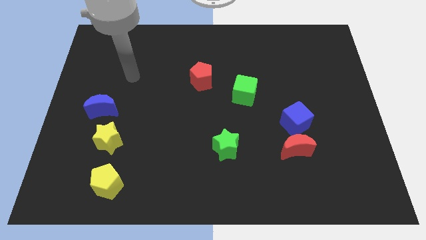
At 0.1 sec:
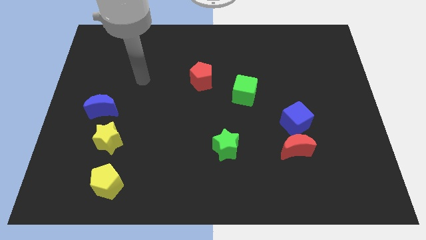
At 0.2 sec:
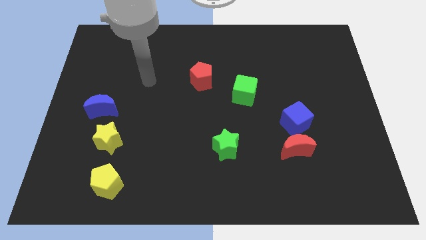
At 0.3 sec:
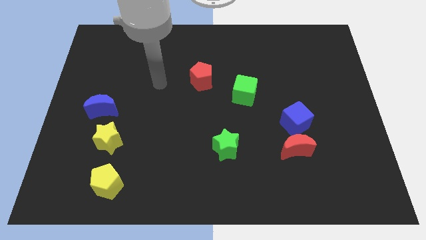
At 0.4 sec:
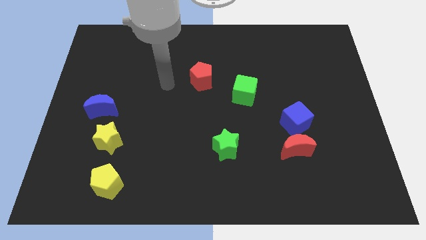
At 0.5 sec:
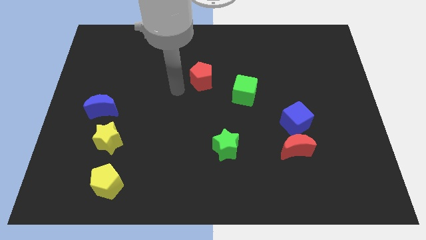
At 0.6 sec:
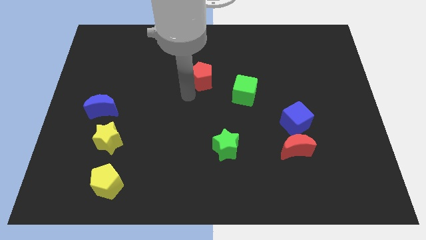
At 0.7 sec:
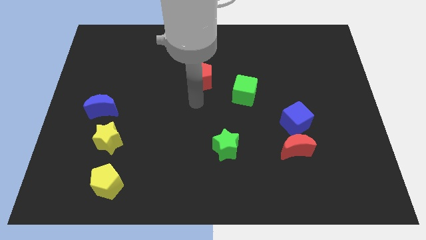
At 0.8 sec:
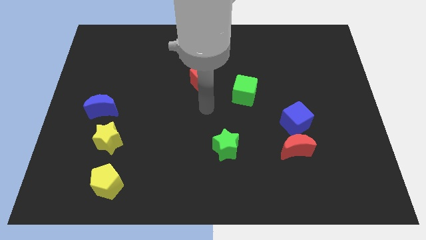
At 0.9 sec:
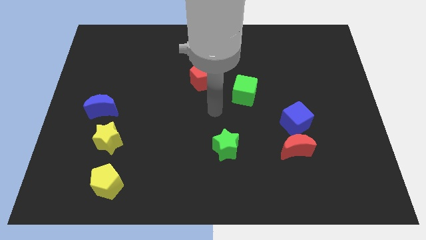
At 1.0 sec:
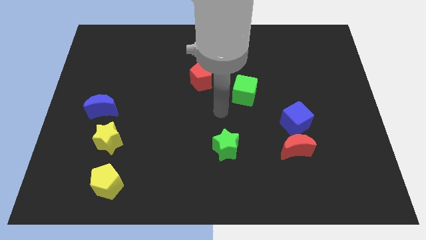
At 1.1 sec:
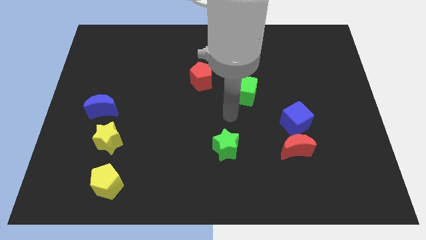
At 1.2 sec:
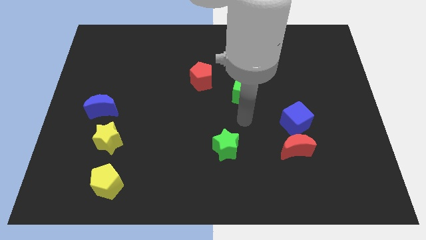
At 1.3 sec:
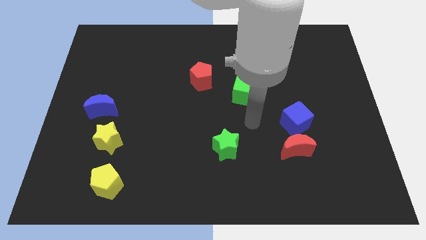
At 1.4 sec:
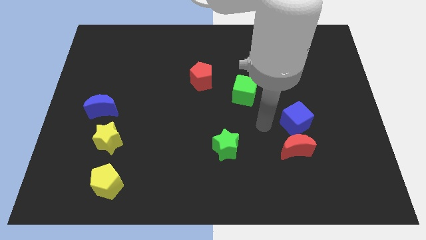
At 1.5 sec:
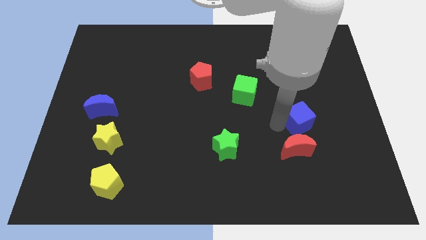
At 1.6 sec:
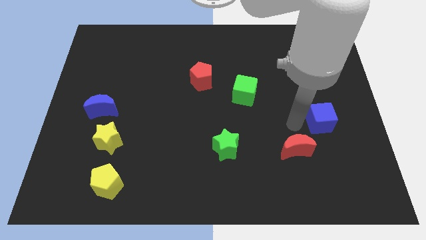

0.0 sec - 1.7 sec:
separate the red moon from the blue cube

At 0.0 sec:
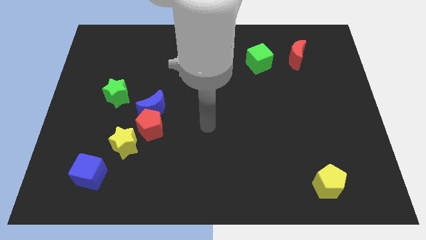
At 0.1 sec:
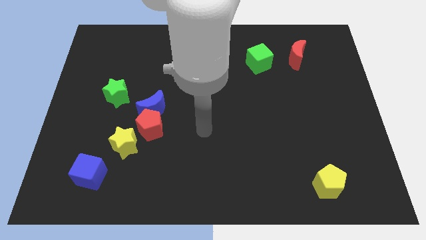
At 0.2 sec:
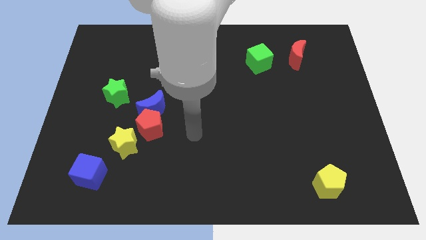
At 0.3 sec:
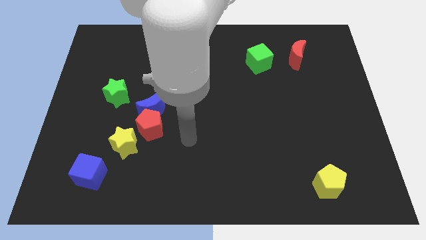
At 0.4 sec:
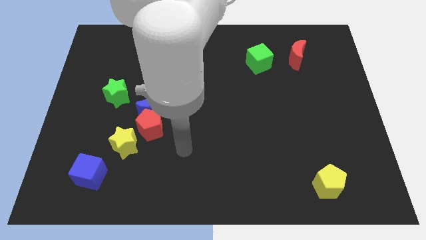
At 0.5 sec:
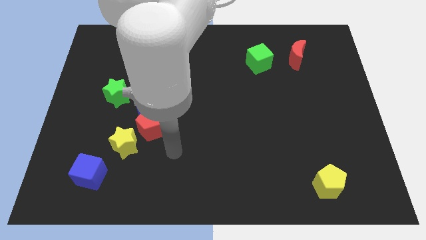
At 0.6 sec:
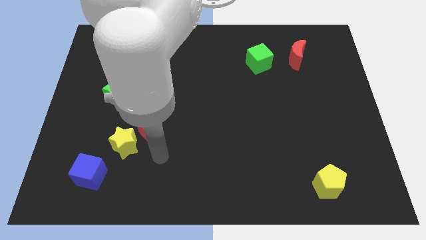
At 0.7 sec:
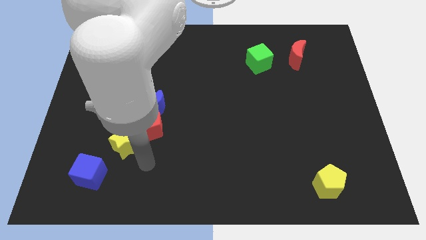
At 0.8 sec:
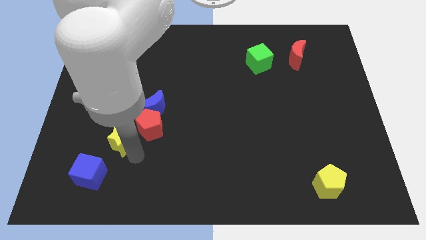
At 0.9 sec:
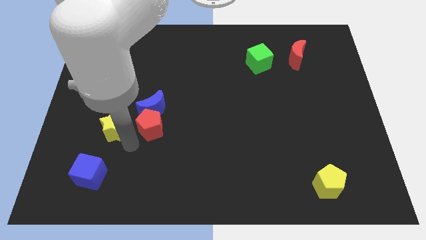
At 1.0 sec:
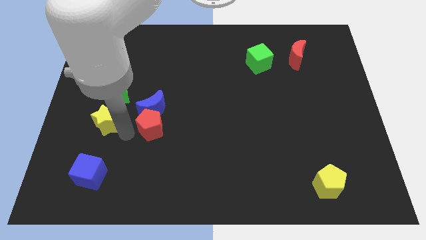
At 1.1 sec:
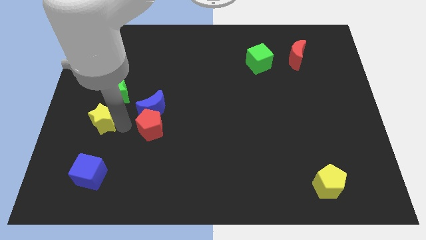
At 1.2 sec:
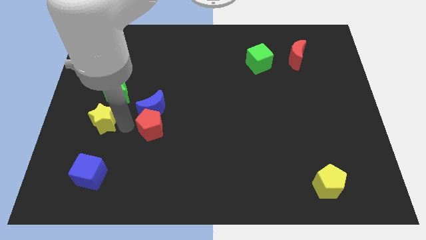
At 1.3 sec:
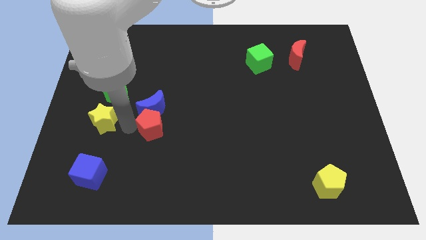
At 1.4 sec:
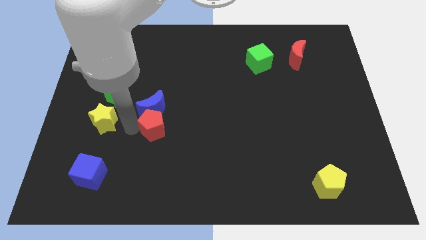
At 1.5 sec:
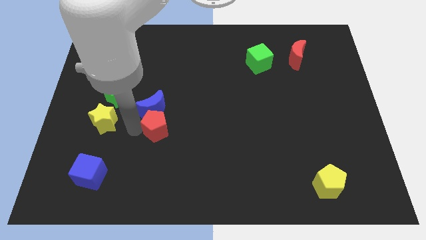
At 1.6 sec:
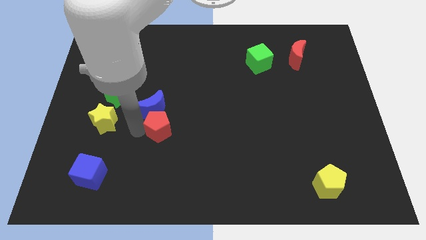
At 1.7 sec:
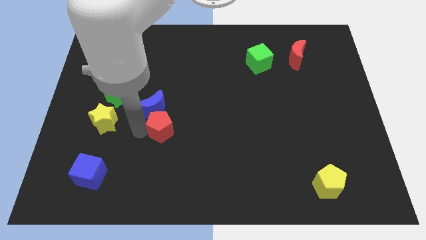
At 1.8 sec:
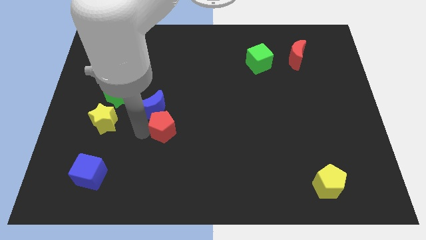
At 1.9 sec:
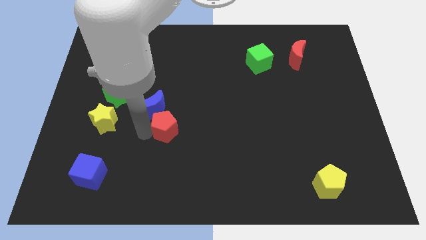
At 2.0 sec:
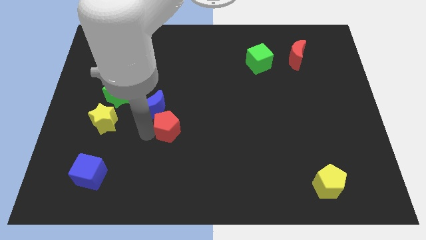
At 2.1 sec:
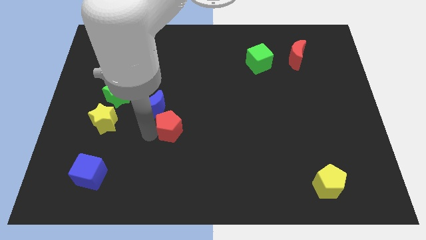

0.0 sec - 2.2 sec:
move the red pentagon away from the blue moon and yellow star

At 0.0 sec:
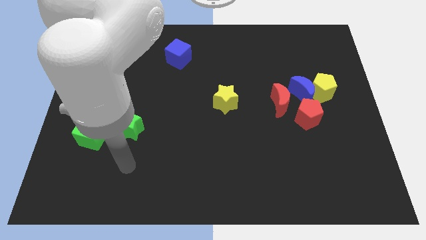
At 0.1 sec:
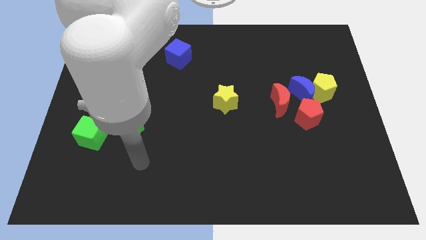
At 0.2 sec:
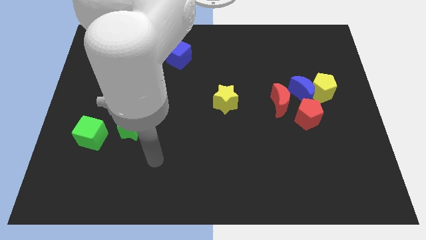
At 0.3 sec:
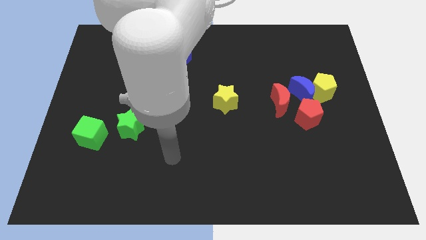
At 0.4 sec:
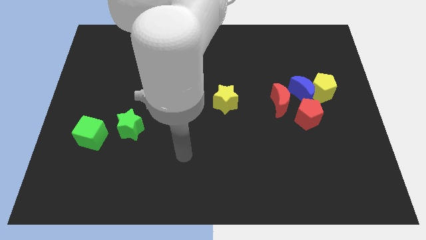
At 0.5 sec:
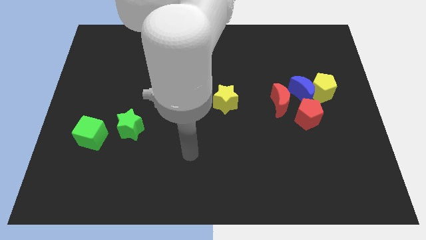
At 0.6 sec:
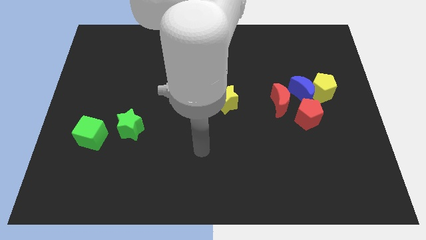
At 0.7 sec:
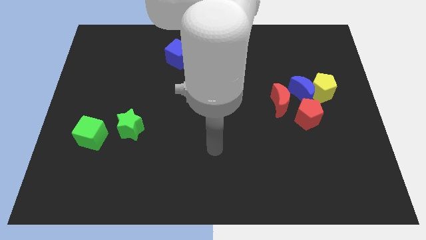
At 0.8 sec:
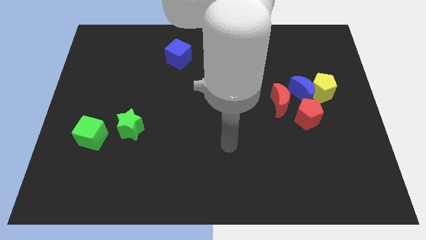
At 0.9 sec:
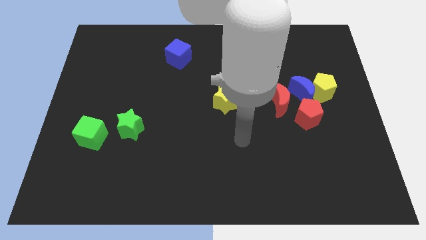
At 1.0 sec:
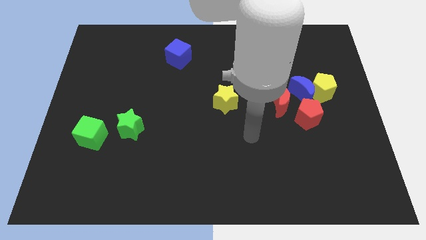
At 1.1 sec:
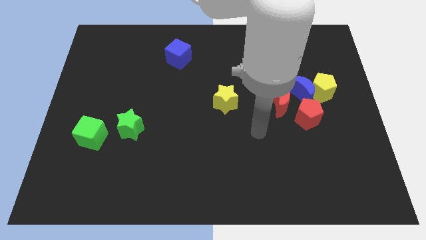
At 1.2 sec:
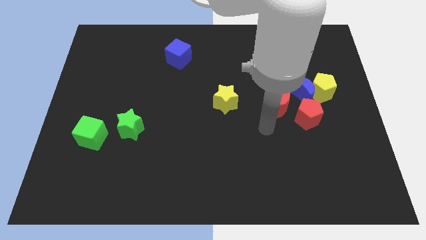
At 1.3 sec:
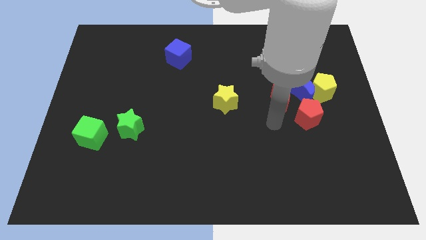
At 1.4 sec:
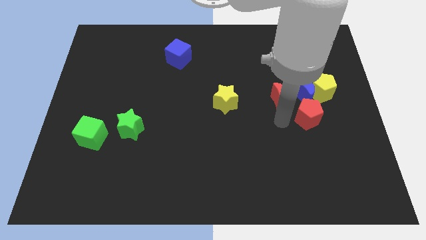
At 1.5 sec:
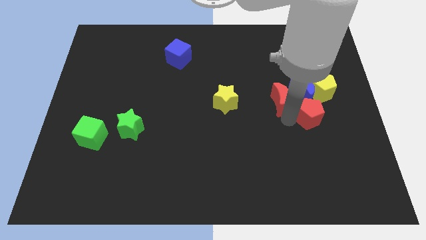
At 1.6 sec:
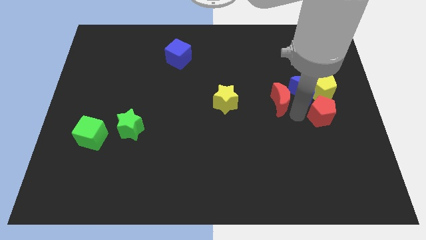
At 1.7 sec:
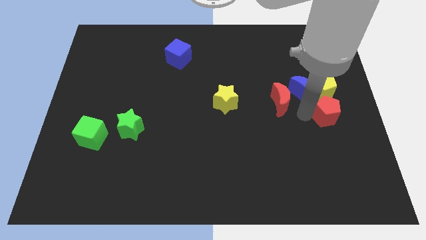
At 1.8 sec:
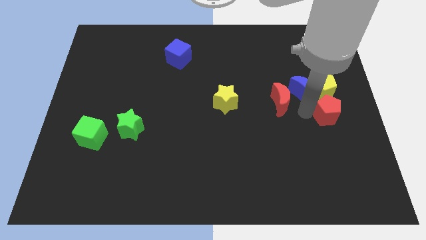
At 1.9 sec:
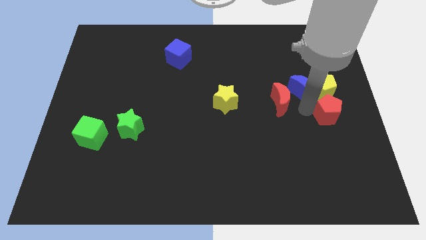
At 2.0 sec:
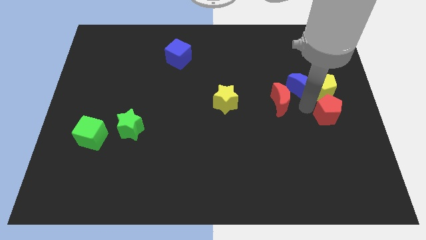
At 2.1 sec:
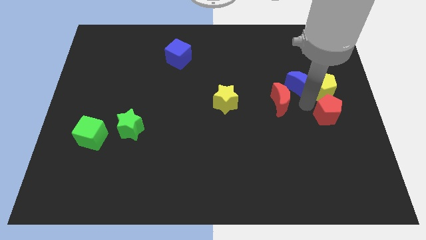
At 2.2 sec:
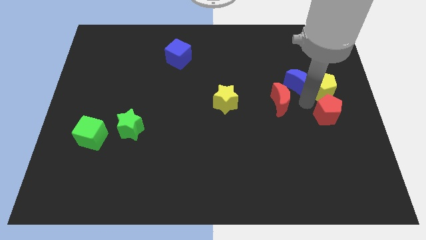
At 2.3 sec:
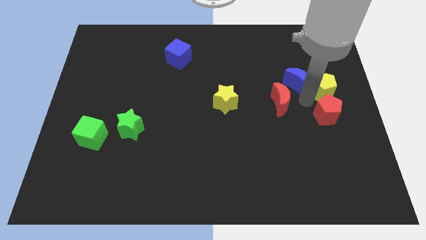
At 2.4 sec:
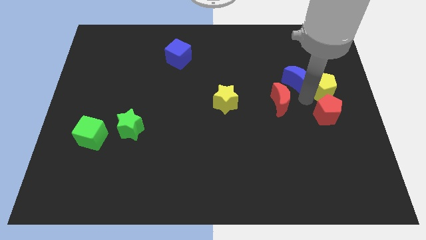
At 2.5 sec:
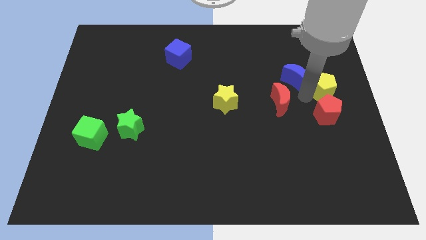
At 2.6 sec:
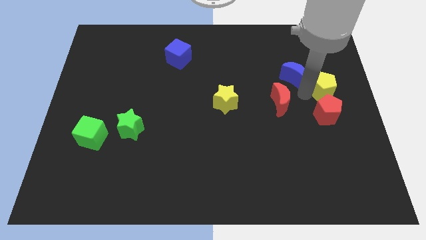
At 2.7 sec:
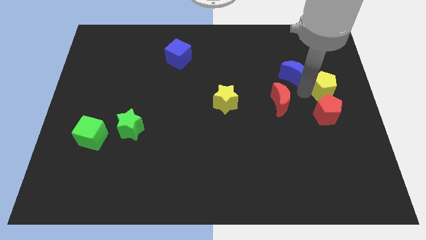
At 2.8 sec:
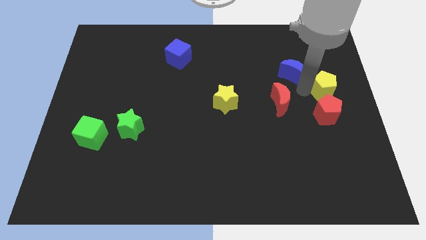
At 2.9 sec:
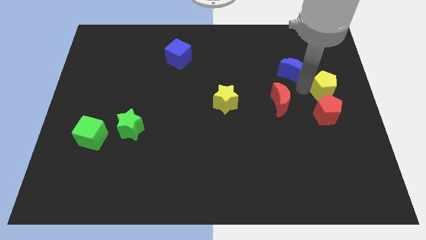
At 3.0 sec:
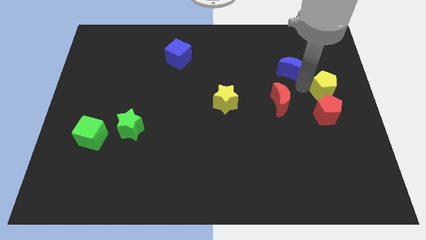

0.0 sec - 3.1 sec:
pull the blue moon apart from the yellow pentagon, red moon, and red pentagon

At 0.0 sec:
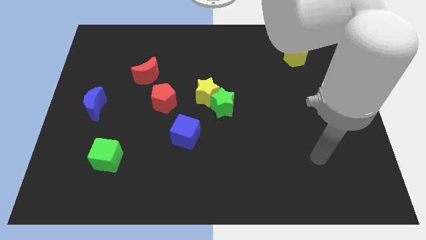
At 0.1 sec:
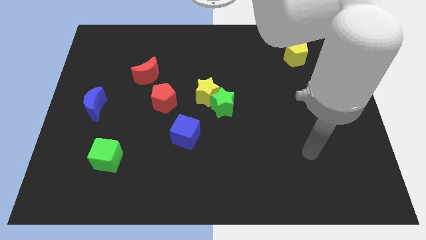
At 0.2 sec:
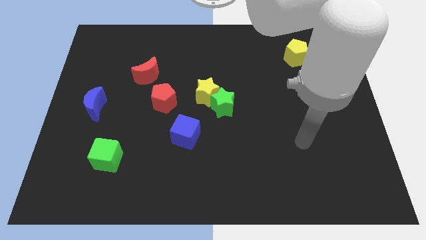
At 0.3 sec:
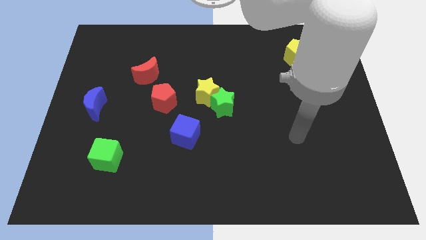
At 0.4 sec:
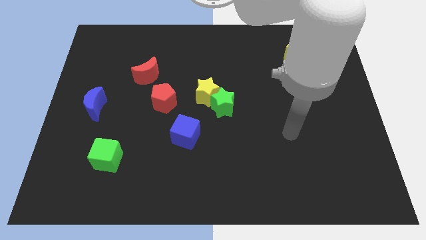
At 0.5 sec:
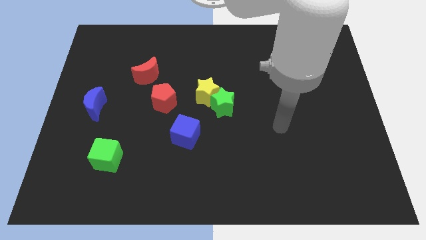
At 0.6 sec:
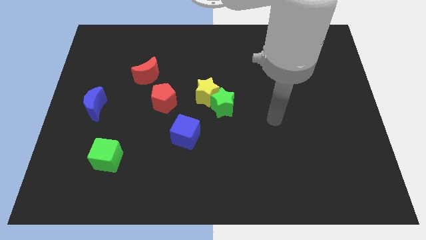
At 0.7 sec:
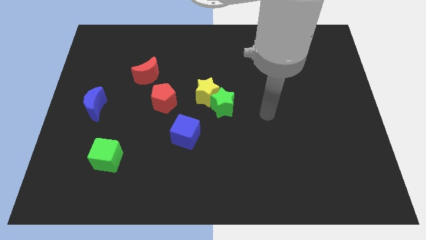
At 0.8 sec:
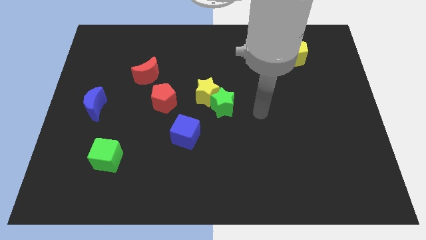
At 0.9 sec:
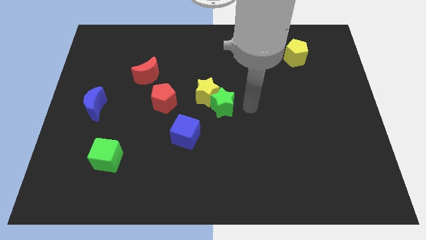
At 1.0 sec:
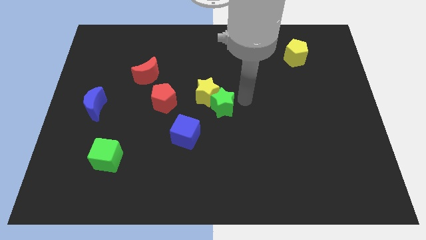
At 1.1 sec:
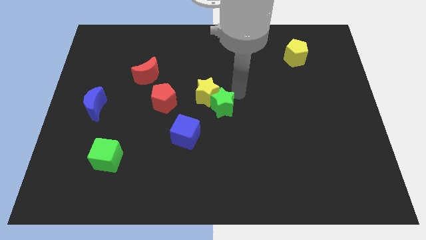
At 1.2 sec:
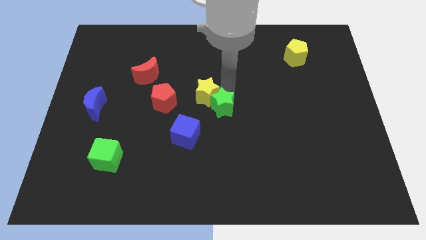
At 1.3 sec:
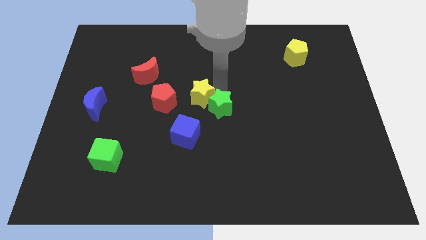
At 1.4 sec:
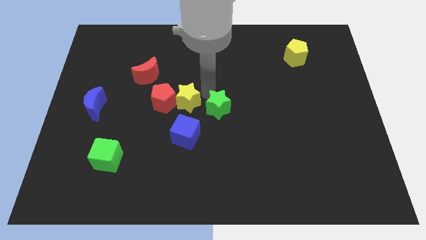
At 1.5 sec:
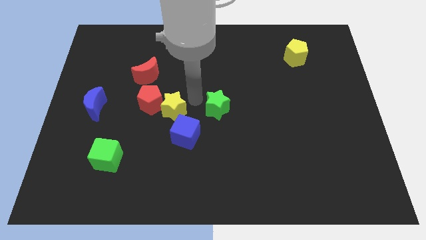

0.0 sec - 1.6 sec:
separate the green star from the yellow star

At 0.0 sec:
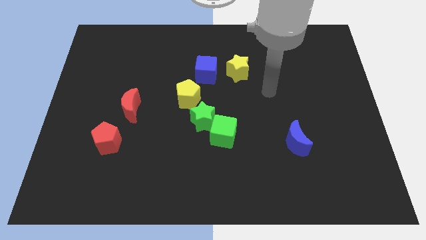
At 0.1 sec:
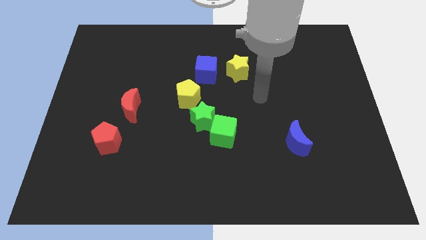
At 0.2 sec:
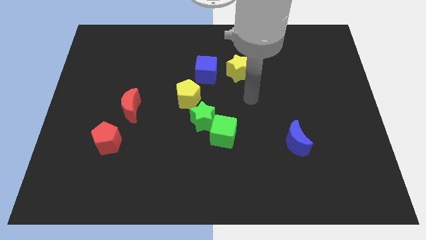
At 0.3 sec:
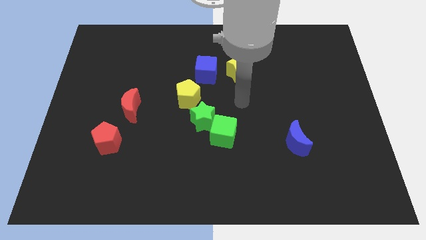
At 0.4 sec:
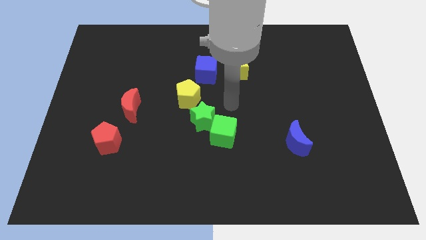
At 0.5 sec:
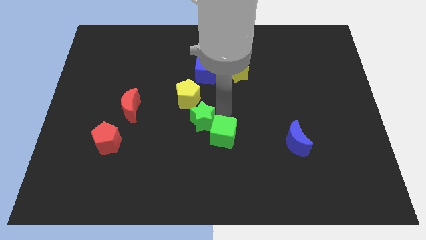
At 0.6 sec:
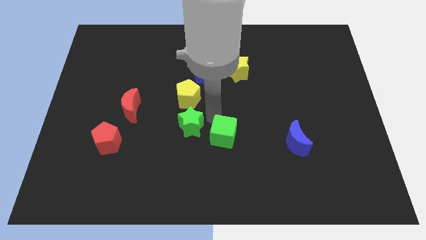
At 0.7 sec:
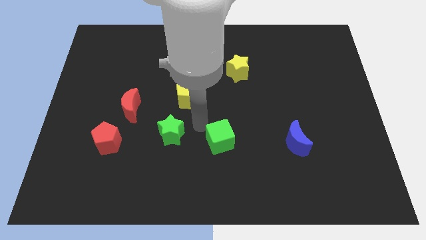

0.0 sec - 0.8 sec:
move the green cube away from the green star

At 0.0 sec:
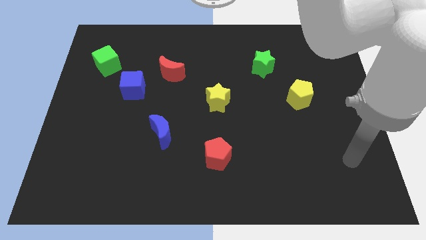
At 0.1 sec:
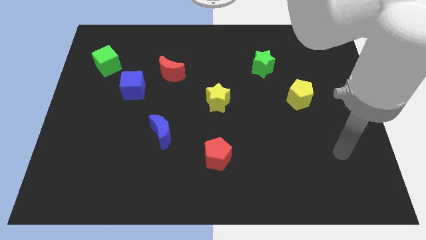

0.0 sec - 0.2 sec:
pull the red moon apart from the blue cube
